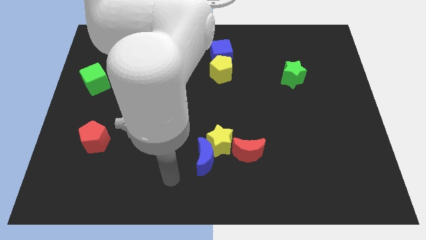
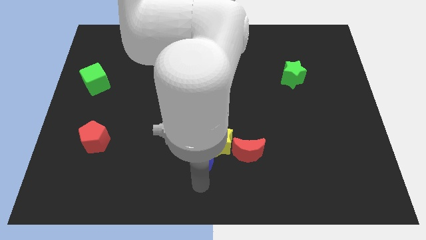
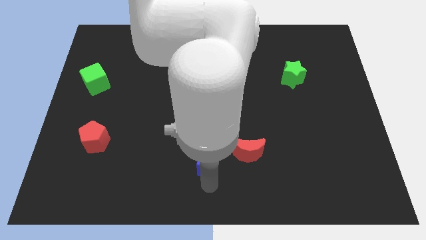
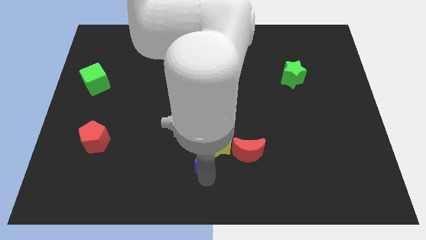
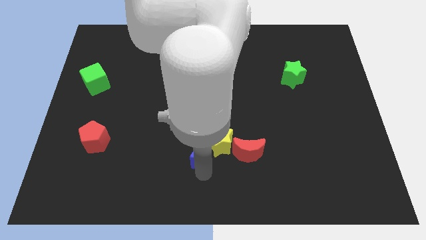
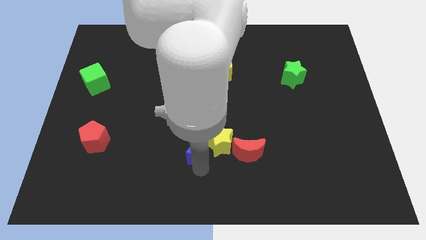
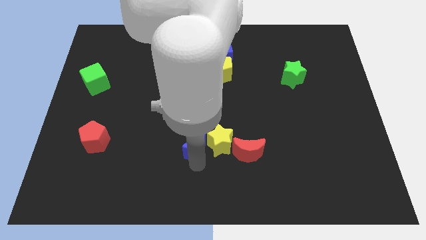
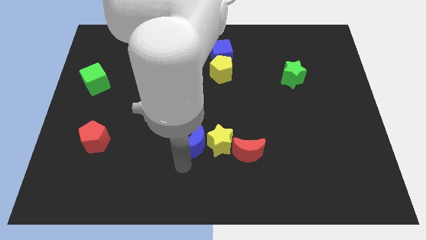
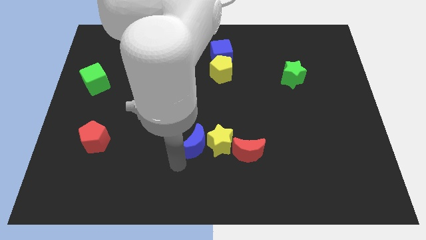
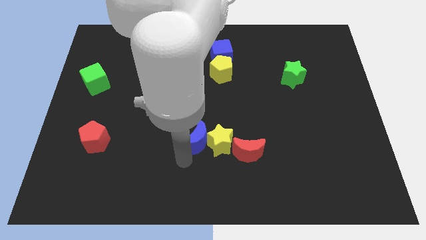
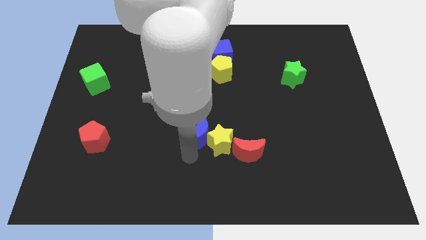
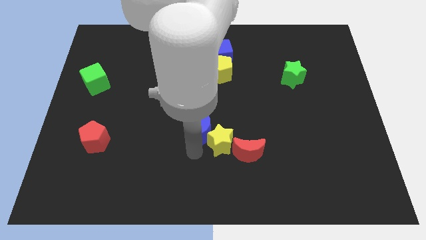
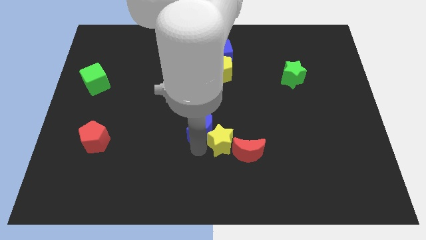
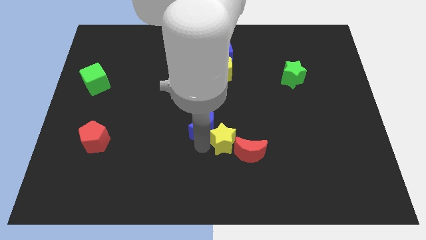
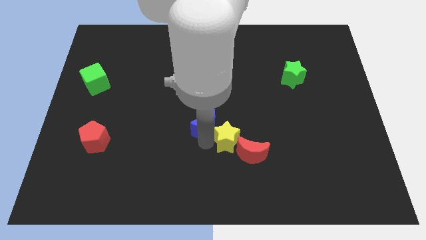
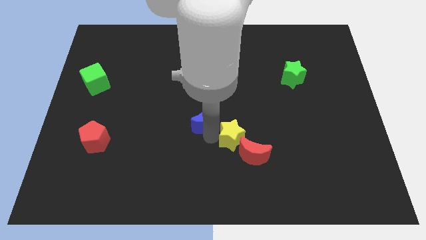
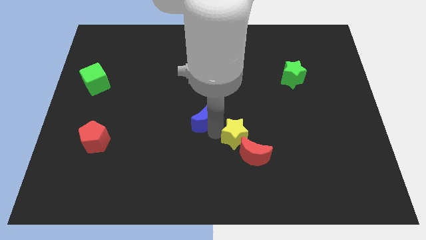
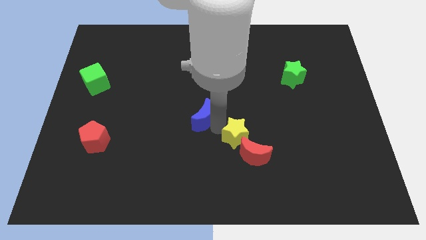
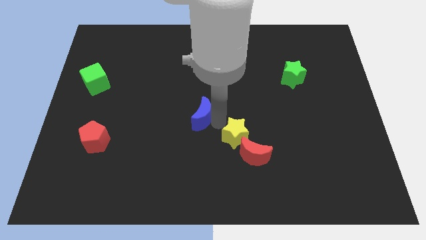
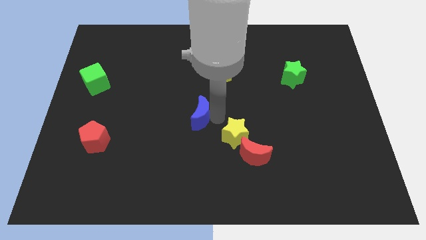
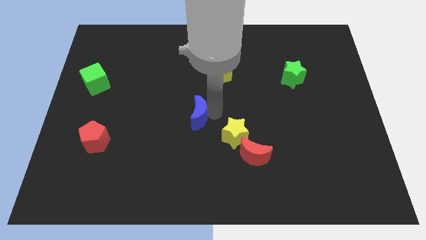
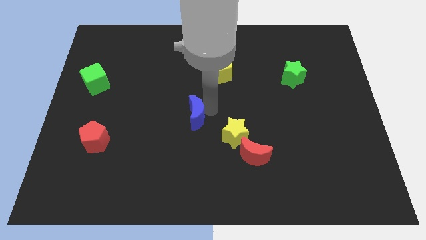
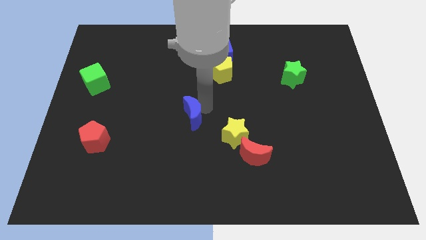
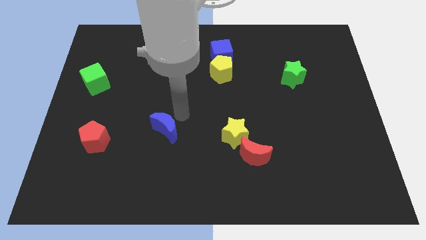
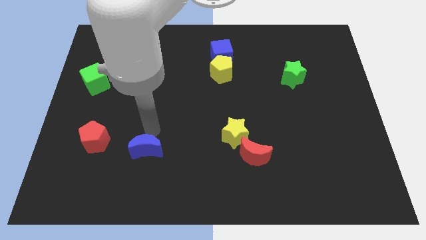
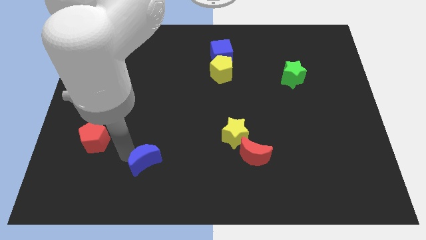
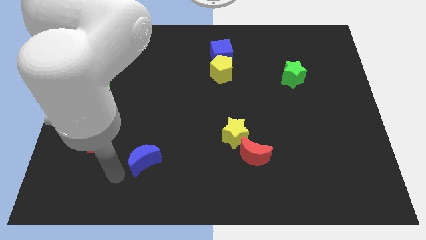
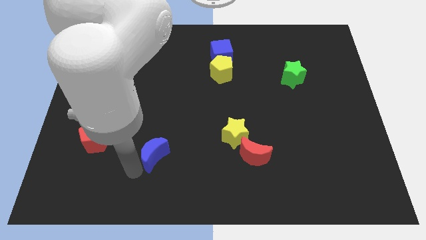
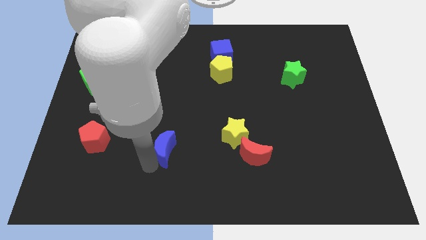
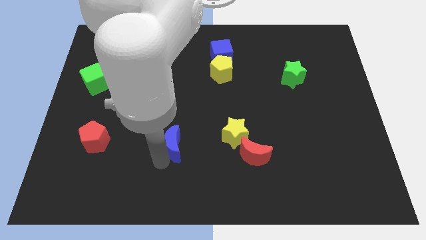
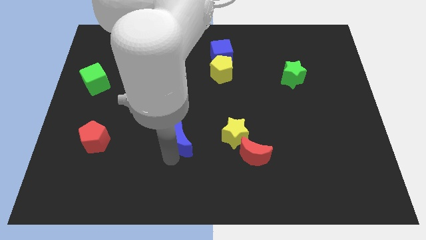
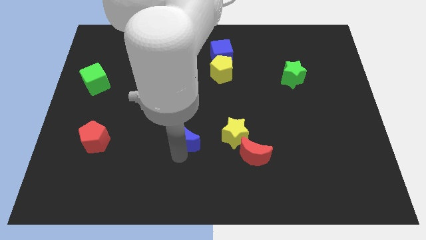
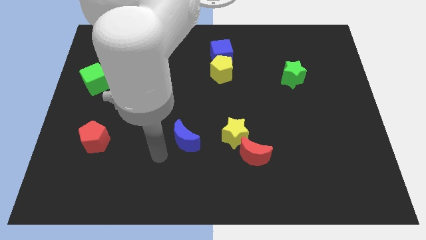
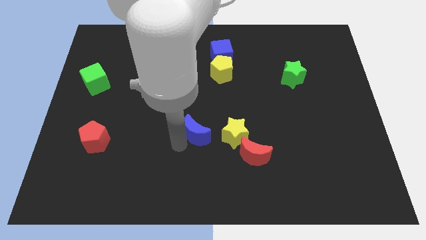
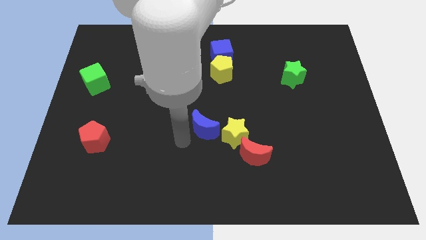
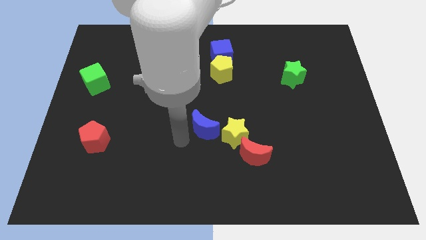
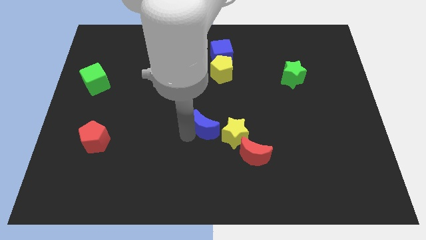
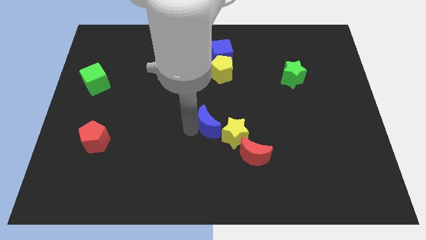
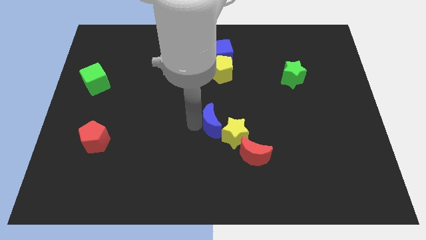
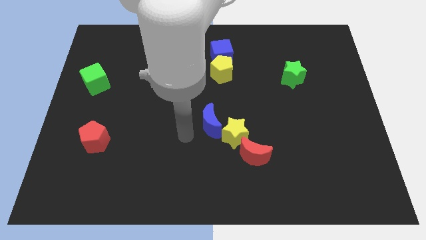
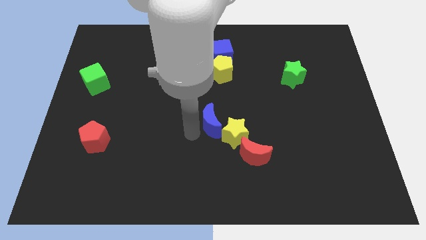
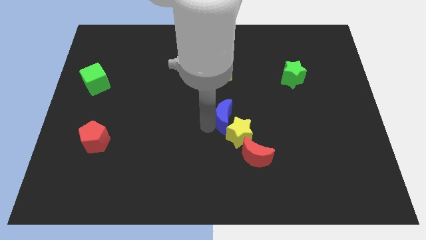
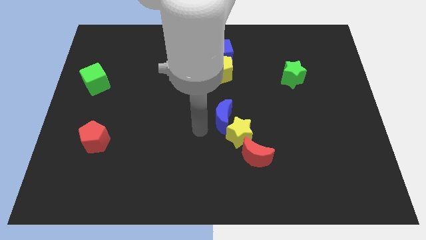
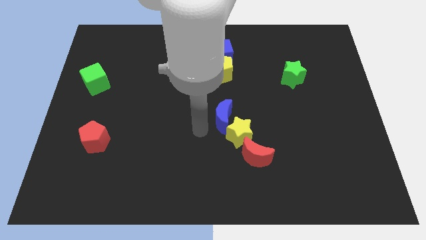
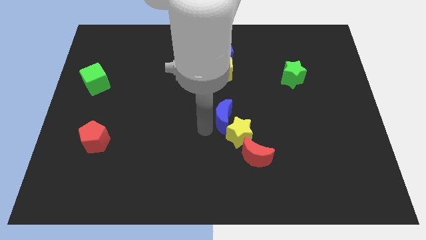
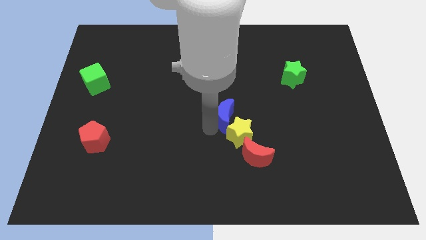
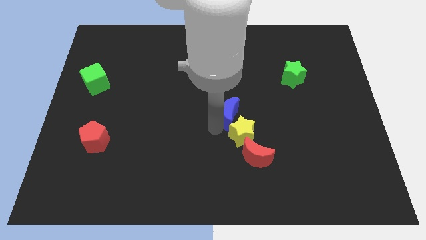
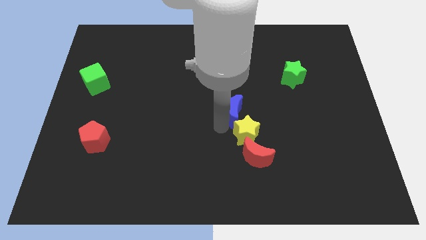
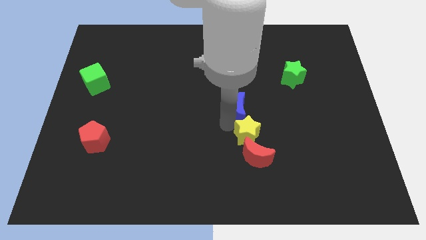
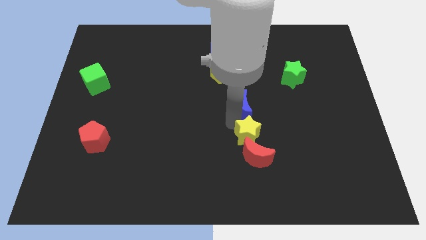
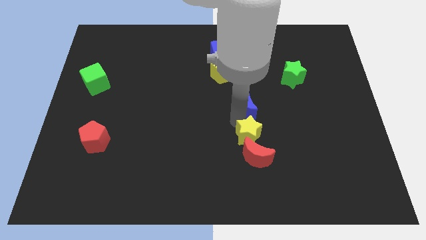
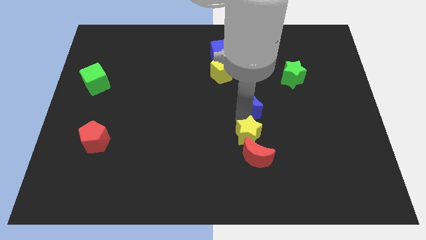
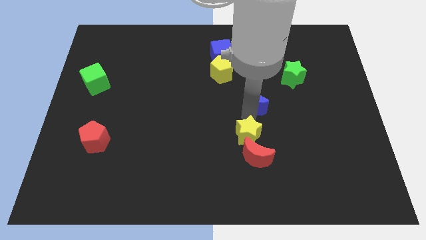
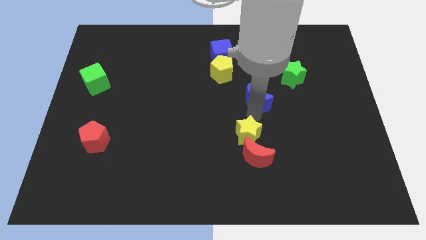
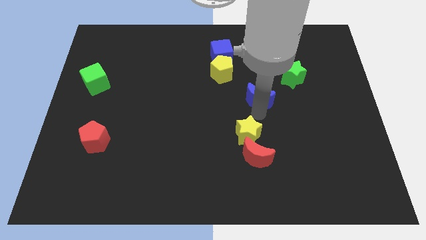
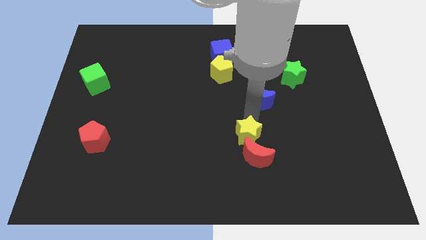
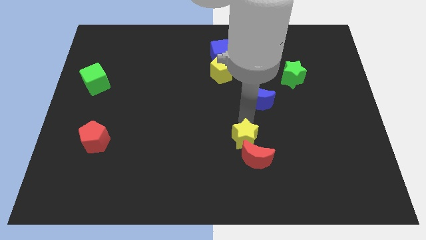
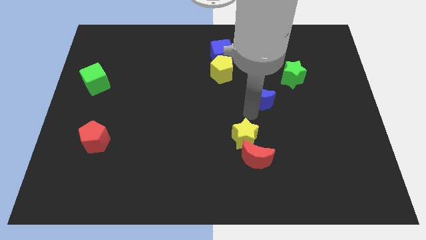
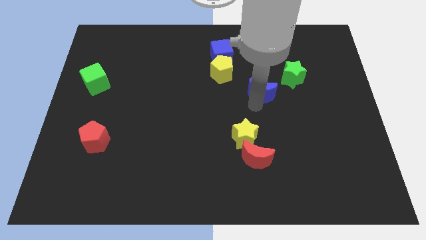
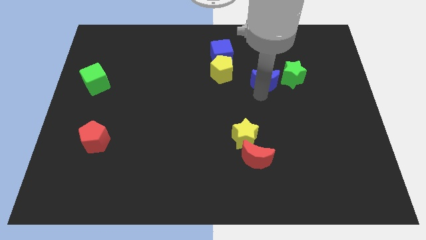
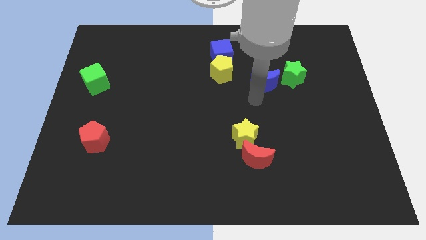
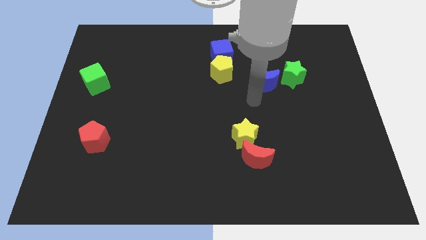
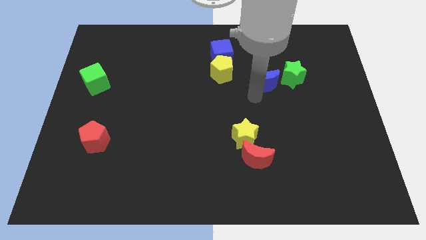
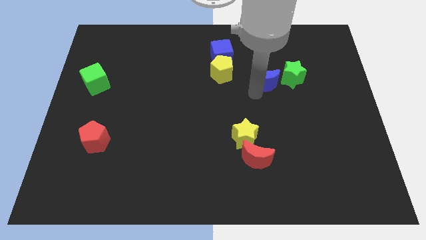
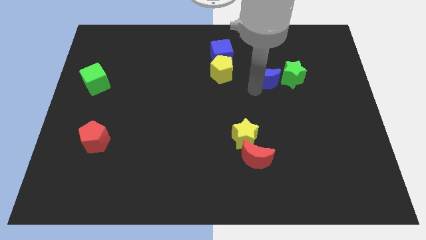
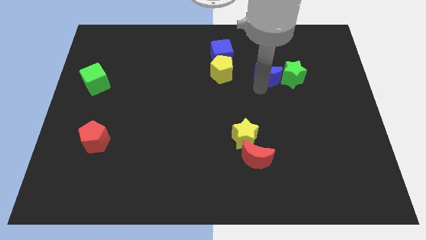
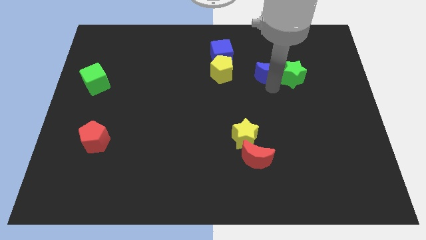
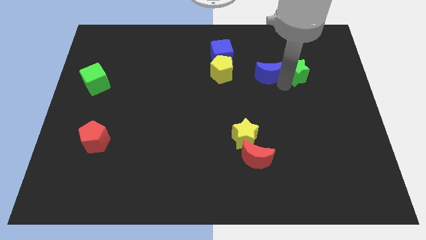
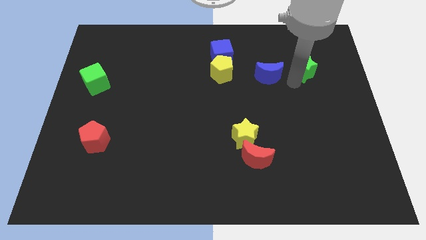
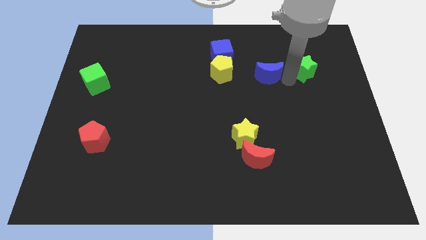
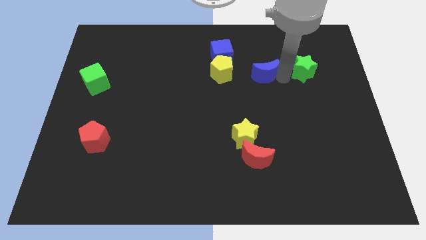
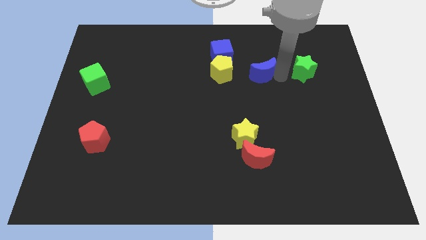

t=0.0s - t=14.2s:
put the blue moon diagonally down and to the right of the blue cube
